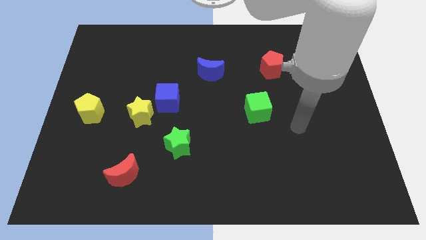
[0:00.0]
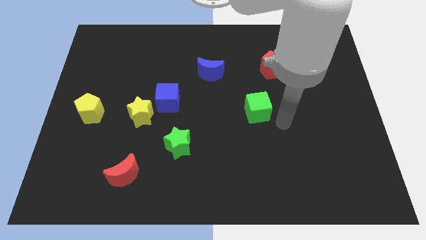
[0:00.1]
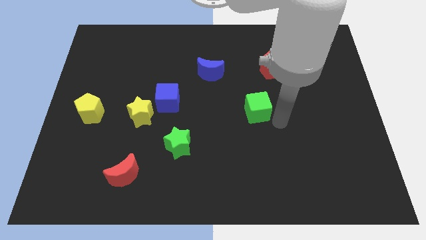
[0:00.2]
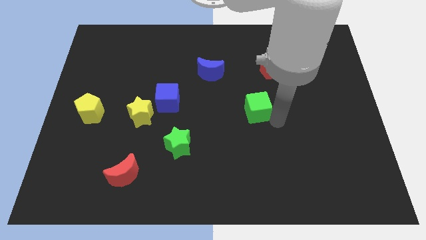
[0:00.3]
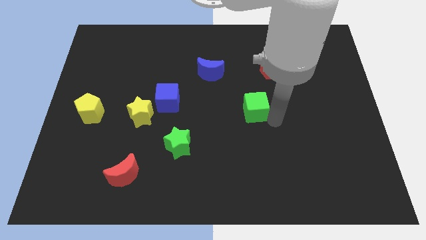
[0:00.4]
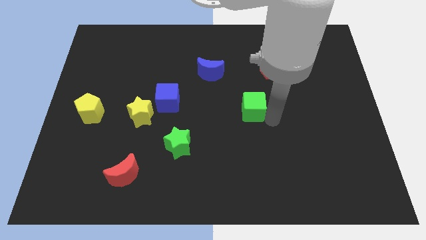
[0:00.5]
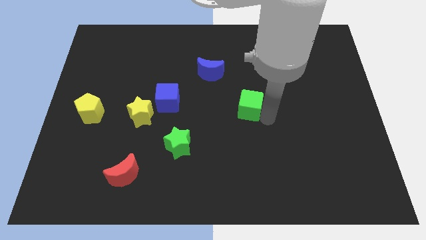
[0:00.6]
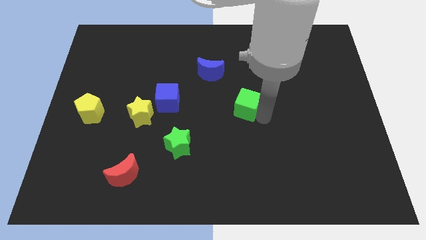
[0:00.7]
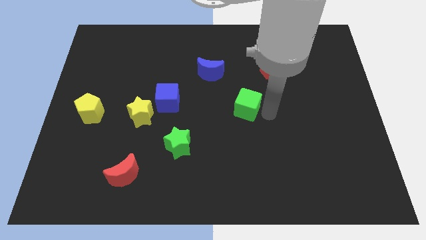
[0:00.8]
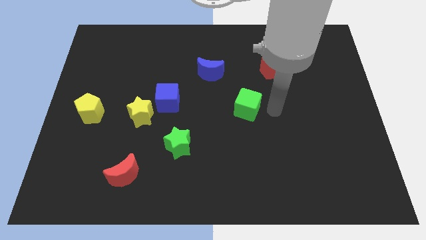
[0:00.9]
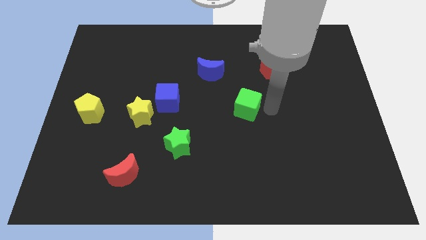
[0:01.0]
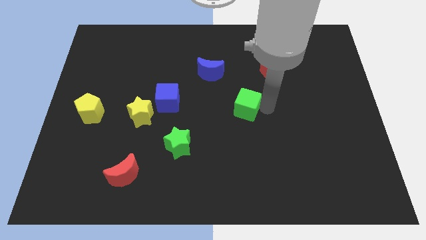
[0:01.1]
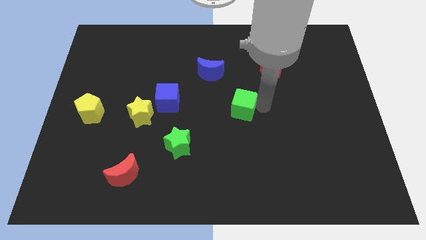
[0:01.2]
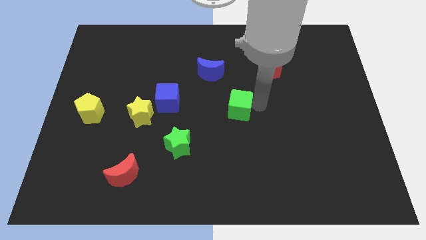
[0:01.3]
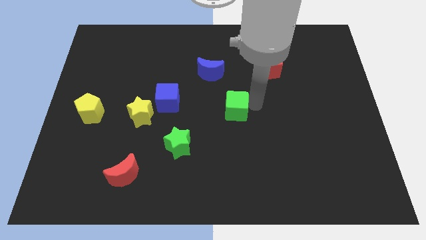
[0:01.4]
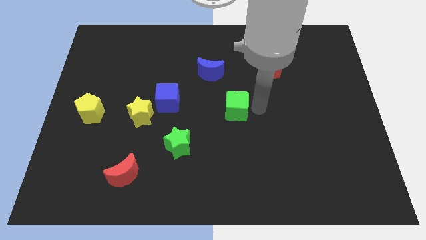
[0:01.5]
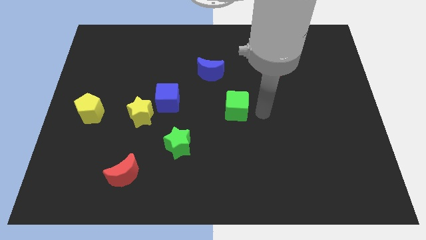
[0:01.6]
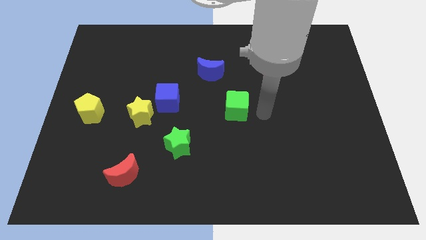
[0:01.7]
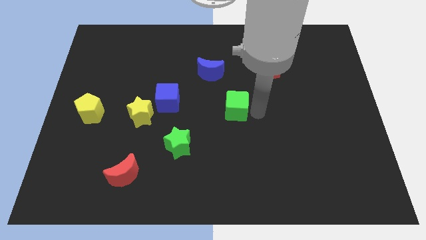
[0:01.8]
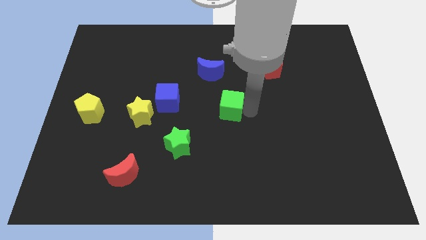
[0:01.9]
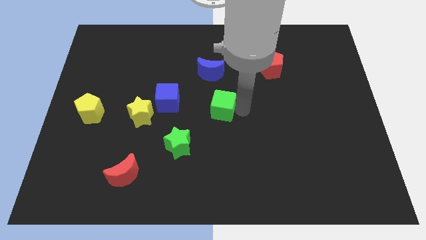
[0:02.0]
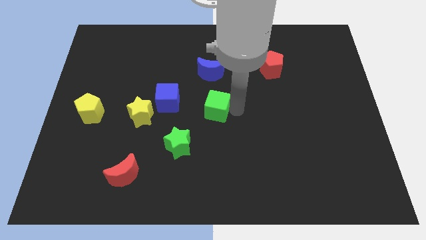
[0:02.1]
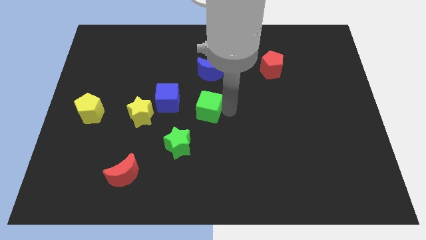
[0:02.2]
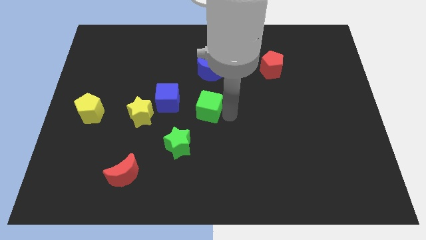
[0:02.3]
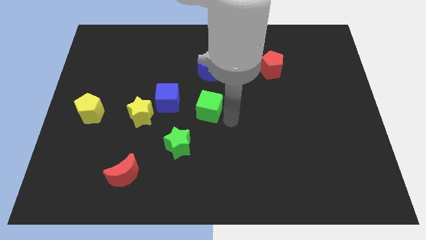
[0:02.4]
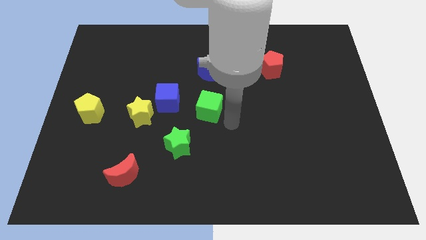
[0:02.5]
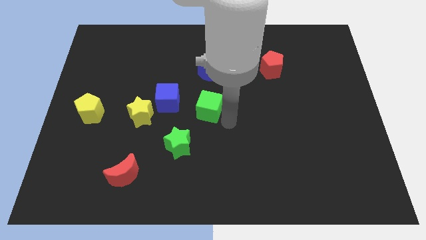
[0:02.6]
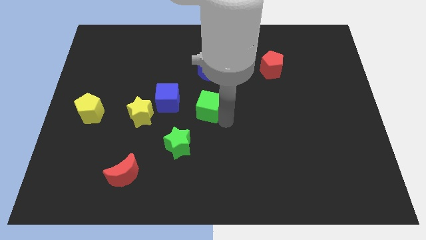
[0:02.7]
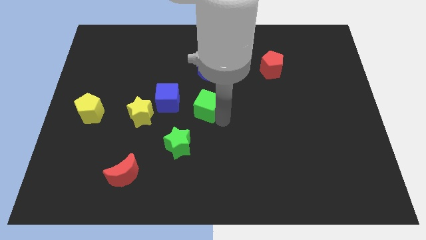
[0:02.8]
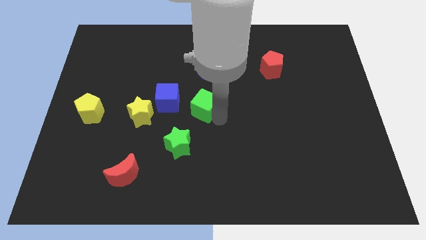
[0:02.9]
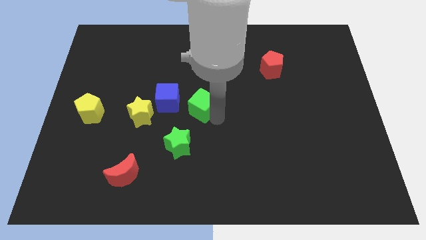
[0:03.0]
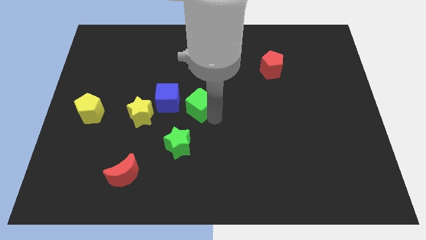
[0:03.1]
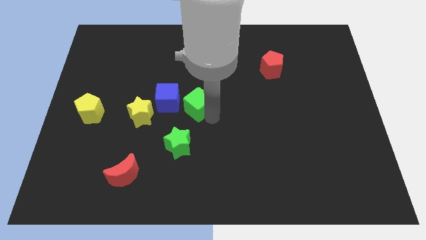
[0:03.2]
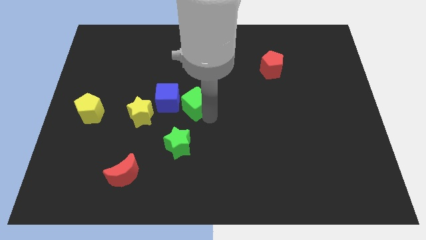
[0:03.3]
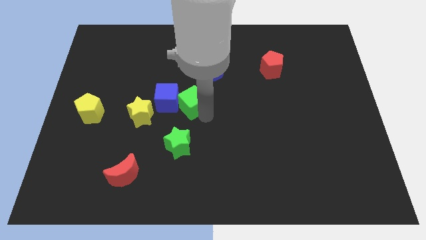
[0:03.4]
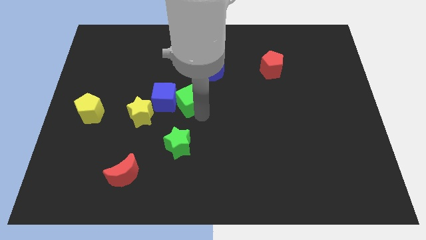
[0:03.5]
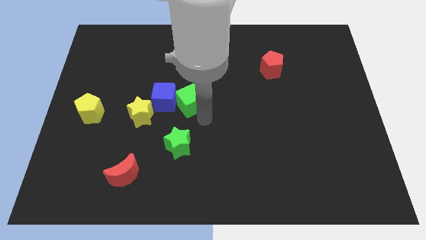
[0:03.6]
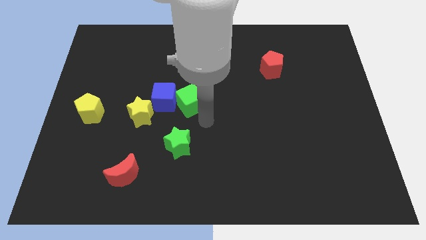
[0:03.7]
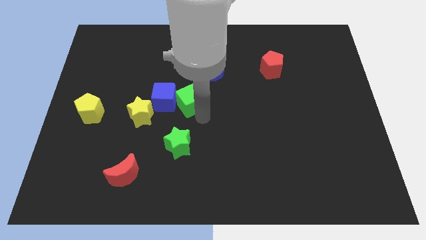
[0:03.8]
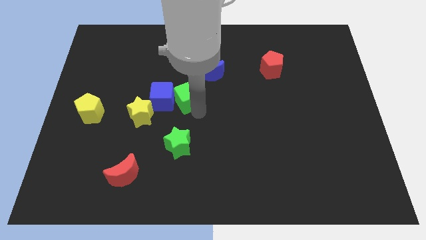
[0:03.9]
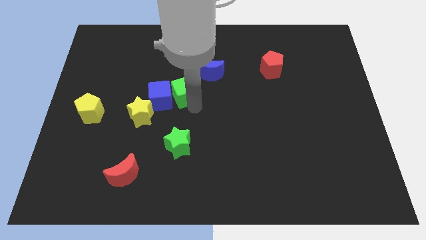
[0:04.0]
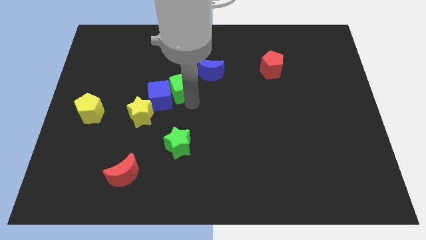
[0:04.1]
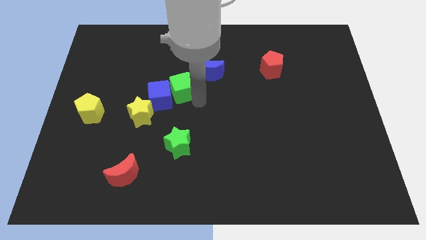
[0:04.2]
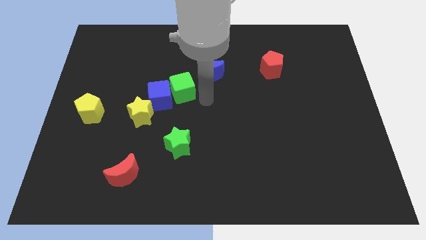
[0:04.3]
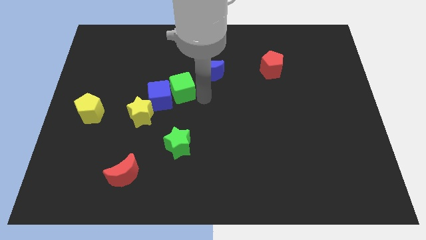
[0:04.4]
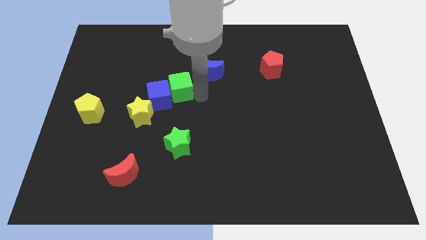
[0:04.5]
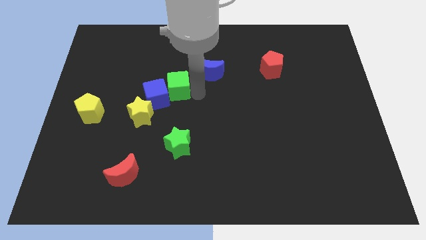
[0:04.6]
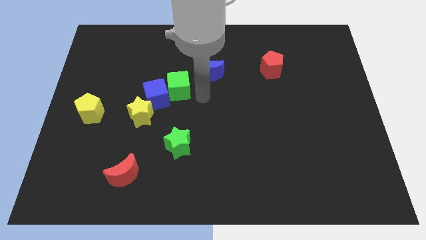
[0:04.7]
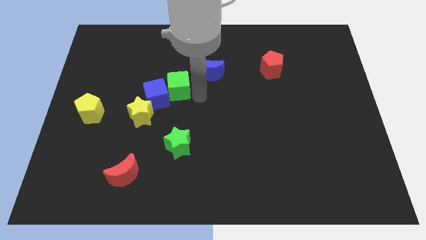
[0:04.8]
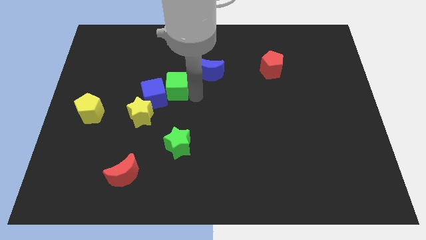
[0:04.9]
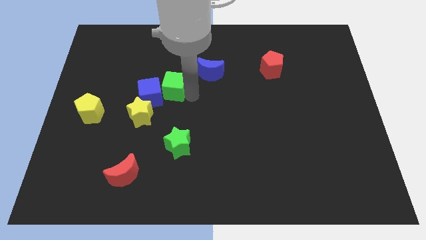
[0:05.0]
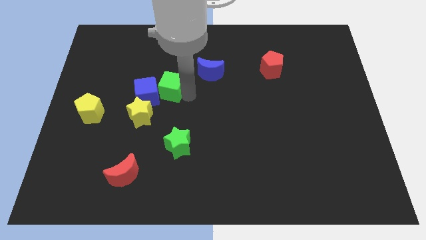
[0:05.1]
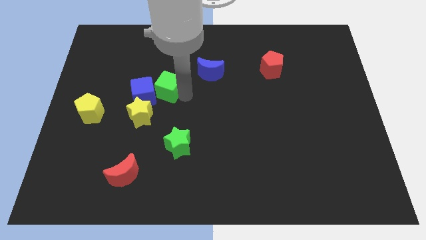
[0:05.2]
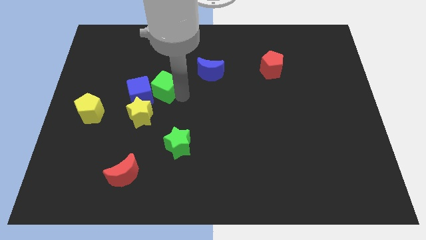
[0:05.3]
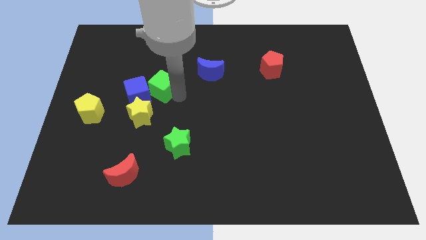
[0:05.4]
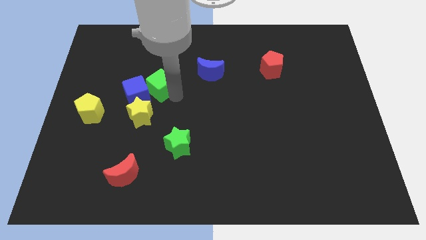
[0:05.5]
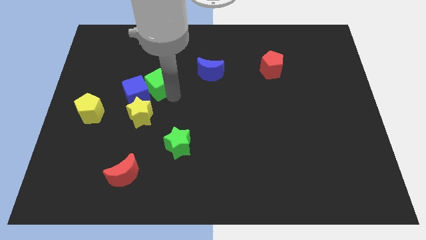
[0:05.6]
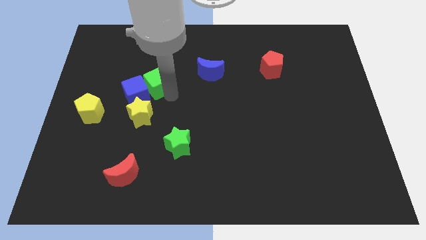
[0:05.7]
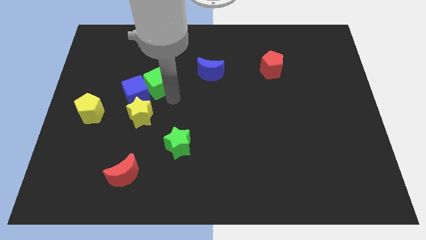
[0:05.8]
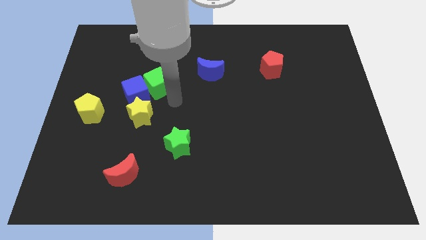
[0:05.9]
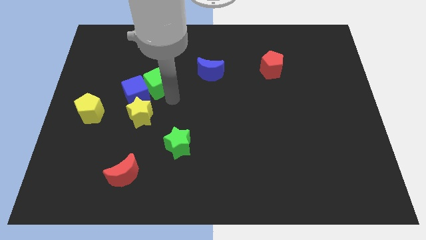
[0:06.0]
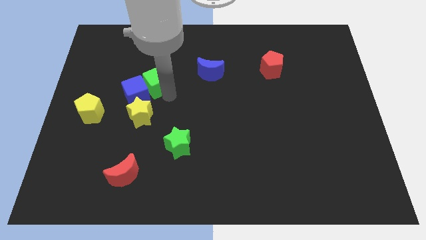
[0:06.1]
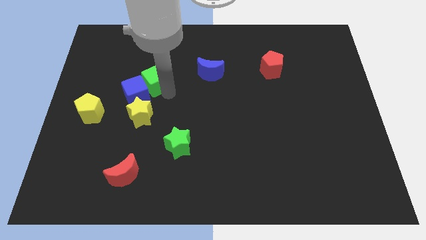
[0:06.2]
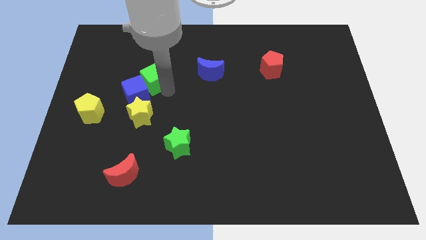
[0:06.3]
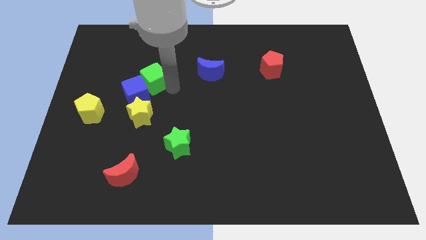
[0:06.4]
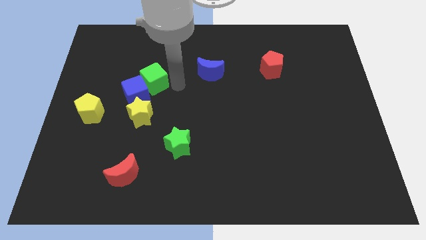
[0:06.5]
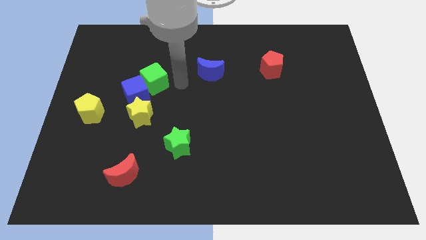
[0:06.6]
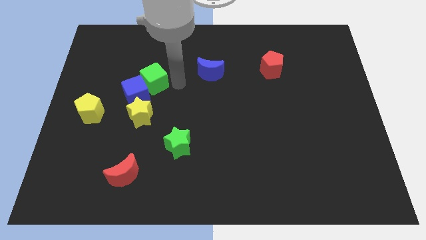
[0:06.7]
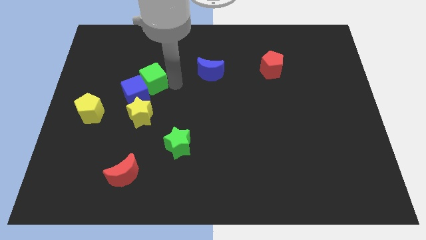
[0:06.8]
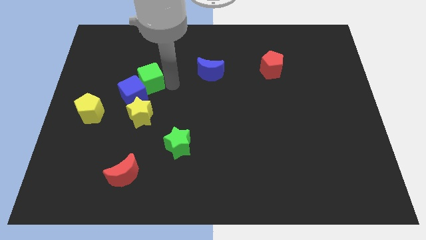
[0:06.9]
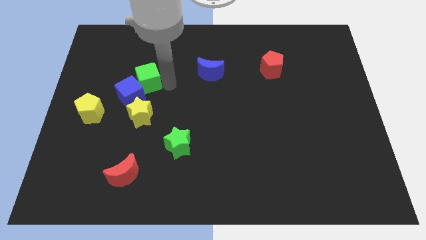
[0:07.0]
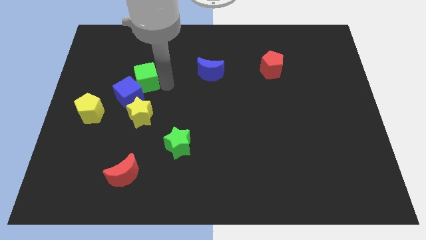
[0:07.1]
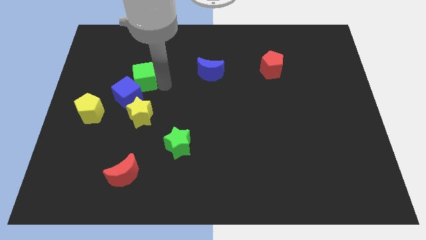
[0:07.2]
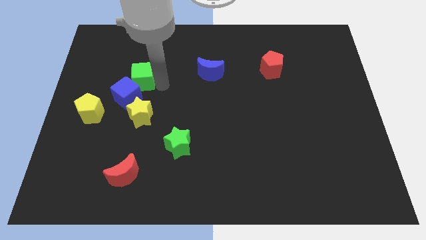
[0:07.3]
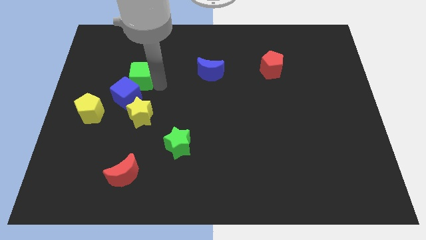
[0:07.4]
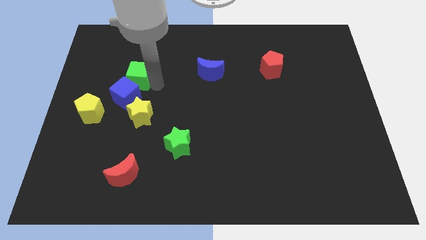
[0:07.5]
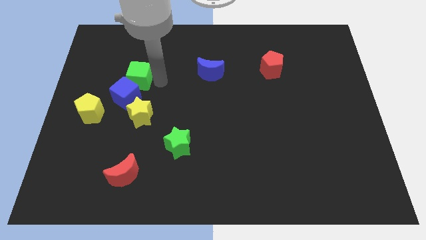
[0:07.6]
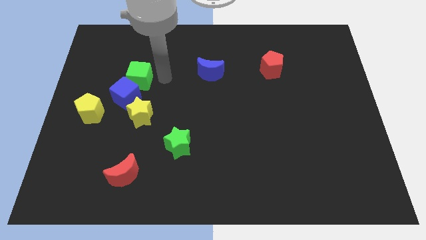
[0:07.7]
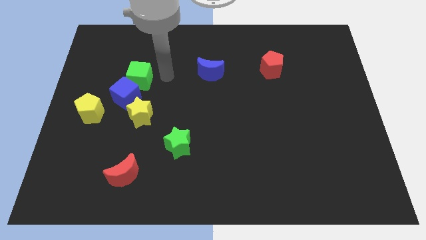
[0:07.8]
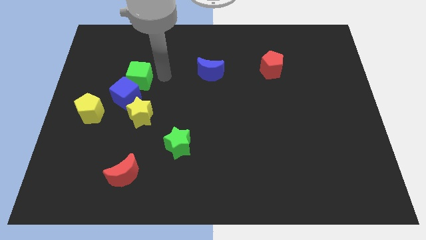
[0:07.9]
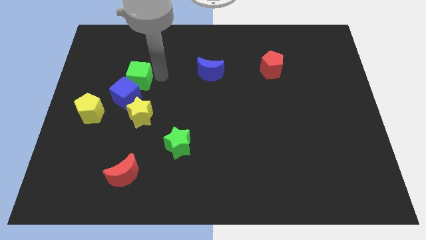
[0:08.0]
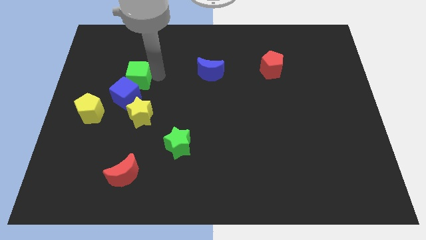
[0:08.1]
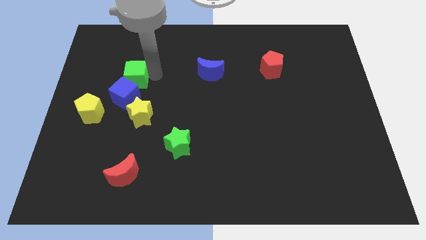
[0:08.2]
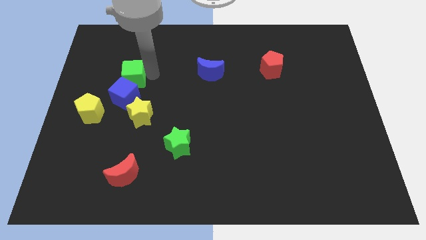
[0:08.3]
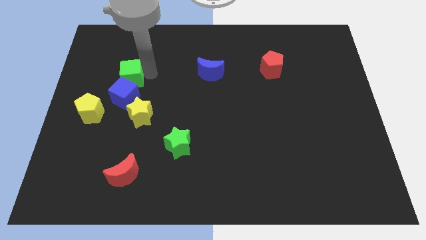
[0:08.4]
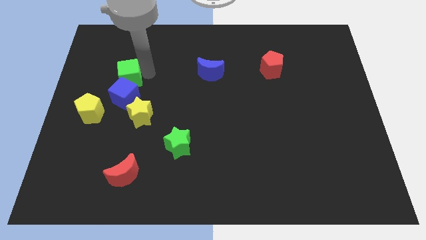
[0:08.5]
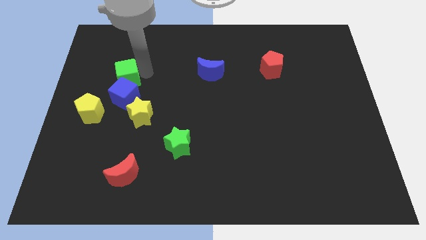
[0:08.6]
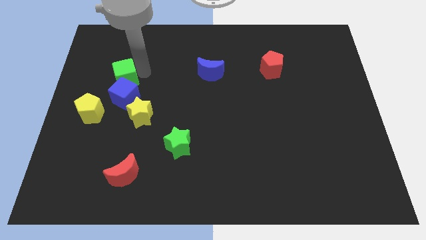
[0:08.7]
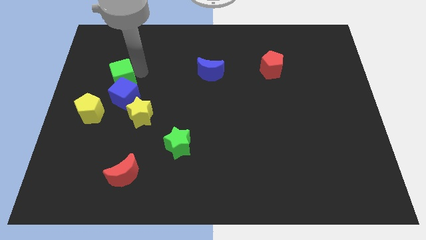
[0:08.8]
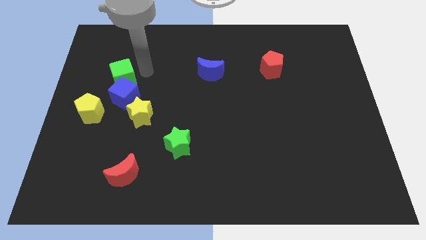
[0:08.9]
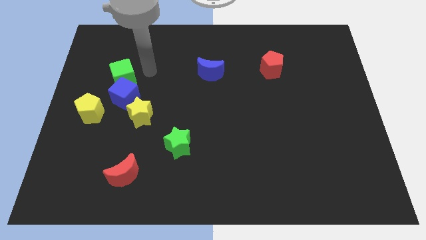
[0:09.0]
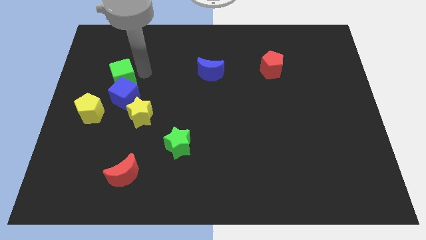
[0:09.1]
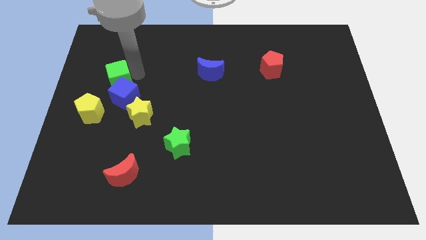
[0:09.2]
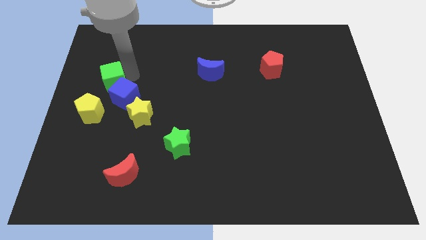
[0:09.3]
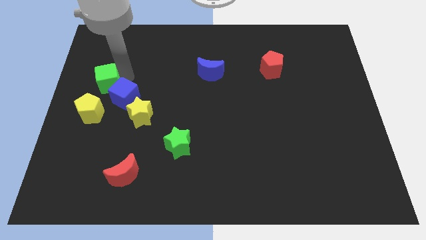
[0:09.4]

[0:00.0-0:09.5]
put the green cube to the center left
